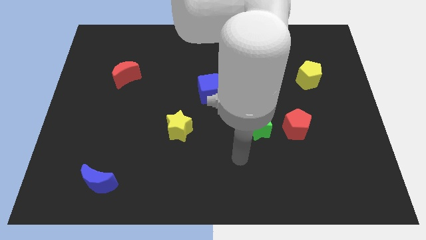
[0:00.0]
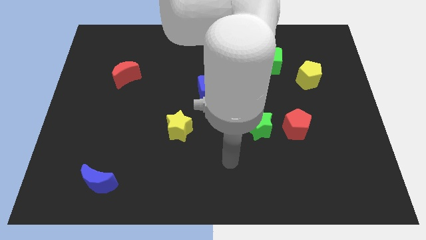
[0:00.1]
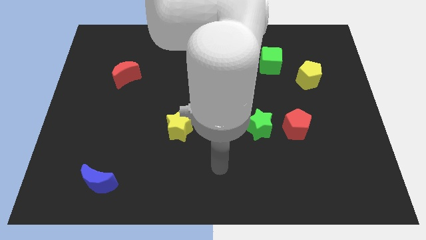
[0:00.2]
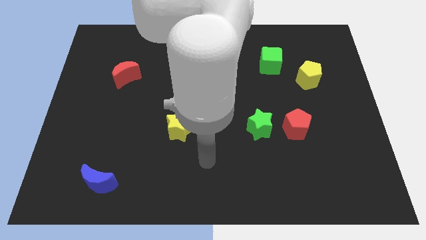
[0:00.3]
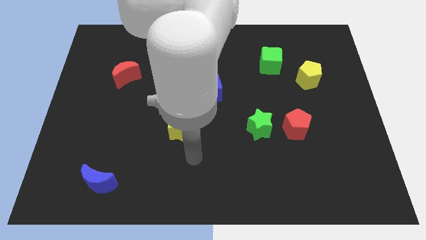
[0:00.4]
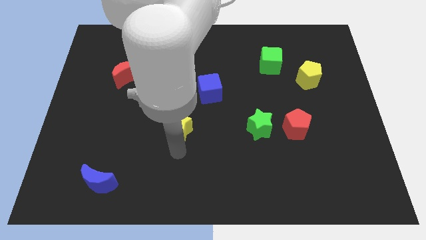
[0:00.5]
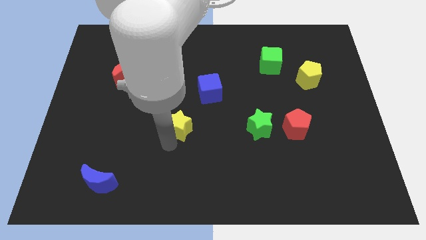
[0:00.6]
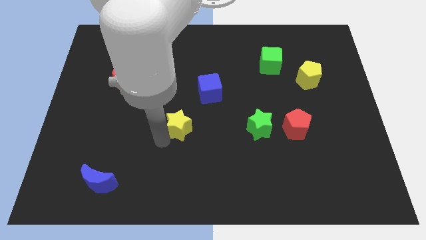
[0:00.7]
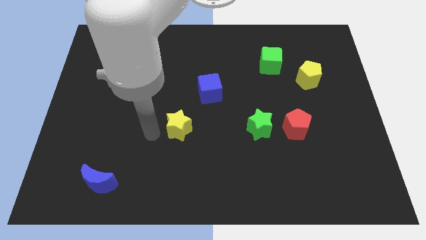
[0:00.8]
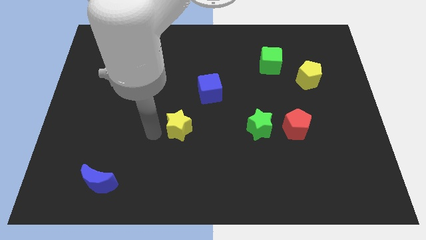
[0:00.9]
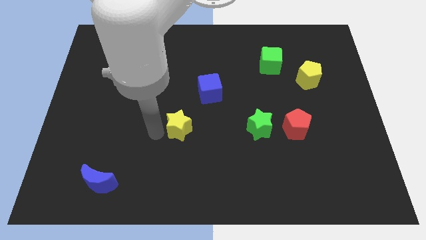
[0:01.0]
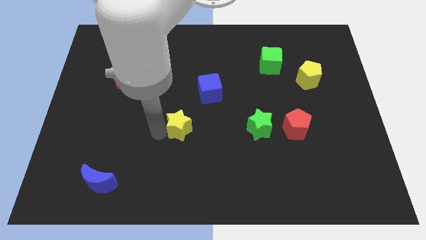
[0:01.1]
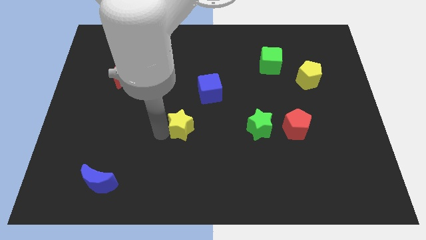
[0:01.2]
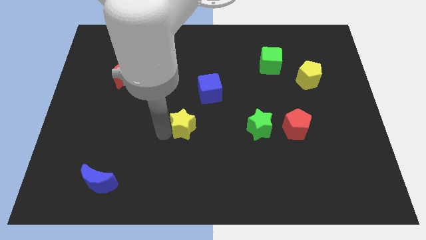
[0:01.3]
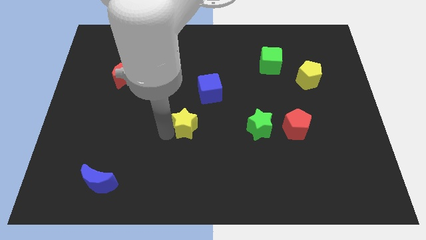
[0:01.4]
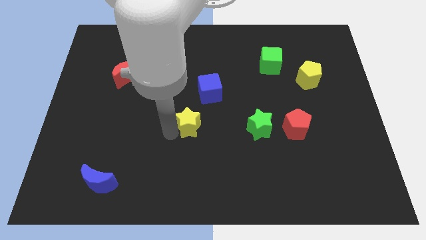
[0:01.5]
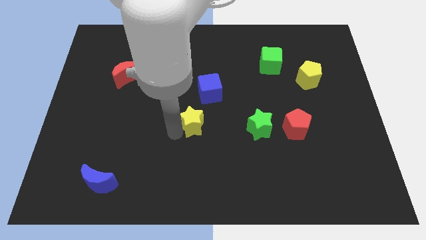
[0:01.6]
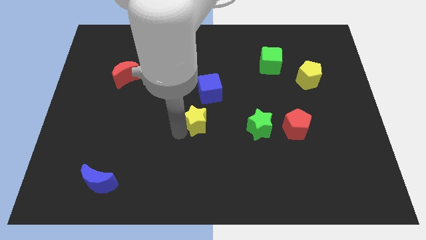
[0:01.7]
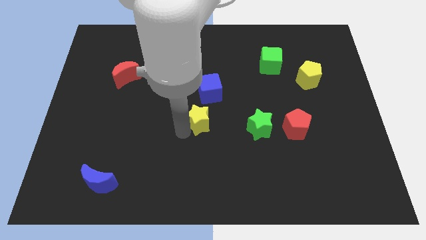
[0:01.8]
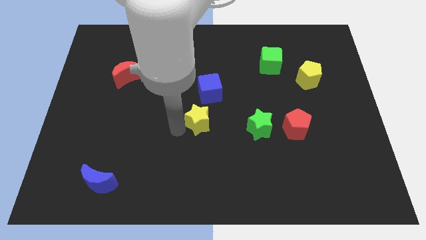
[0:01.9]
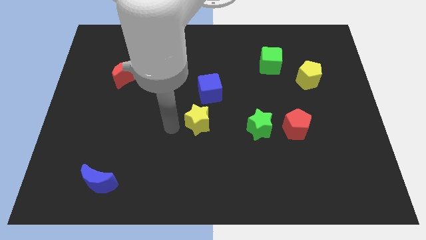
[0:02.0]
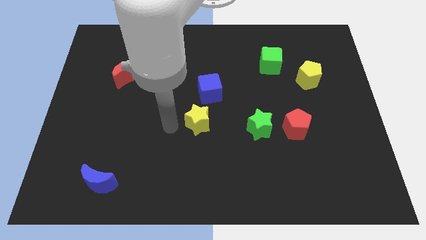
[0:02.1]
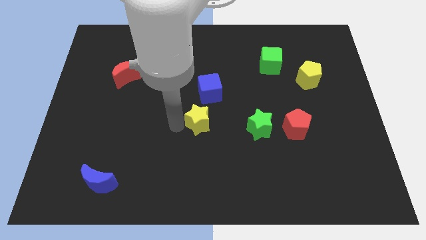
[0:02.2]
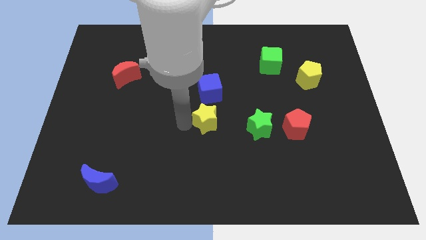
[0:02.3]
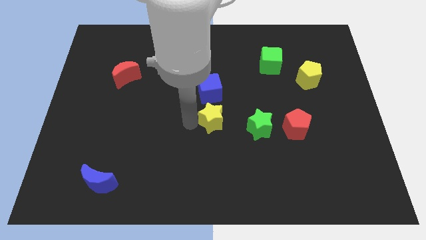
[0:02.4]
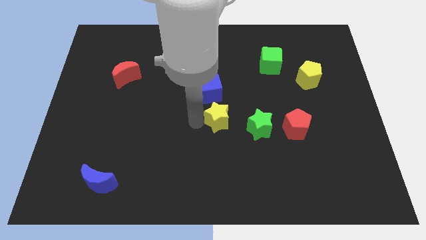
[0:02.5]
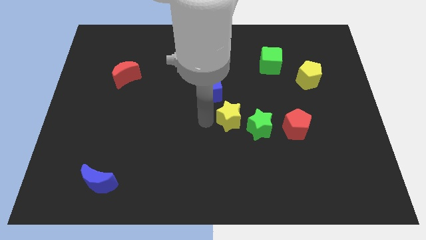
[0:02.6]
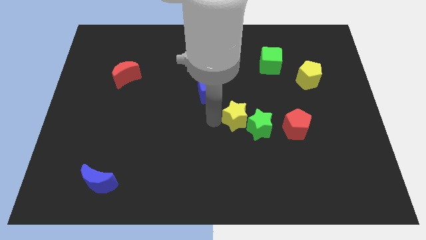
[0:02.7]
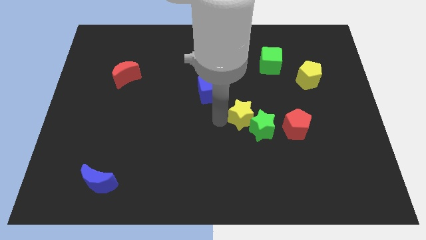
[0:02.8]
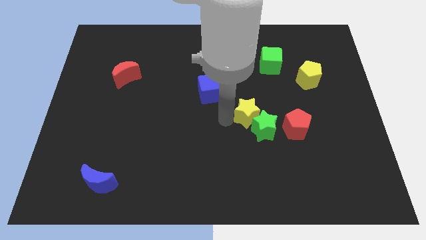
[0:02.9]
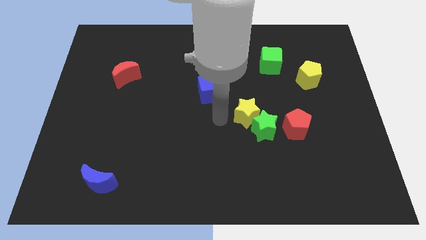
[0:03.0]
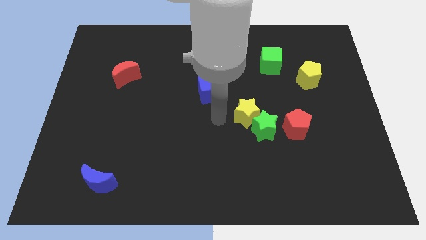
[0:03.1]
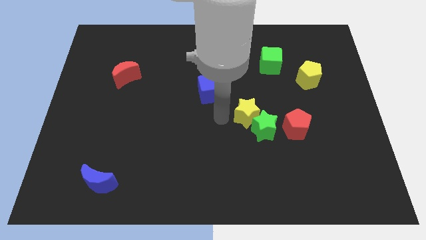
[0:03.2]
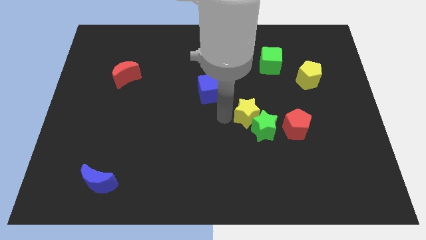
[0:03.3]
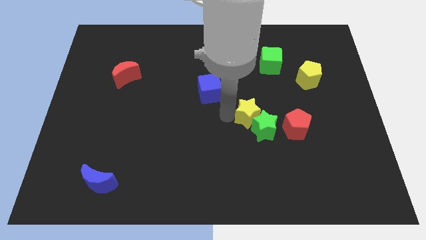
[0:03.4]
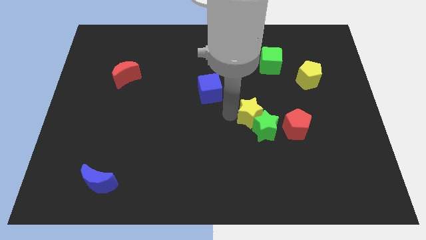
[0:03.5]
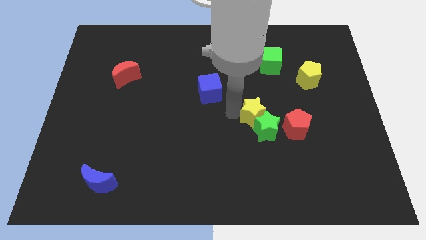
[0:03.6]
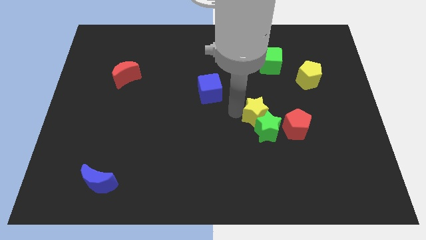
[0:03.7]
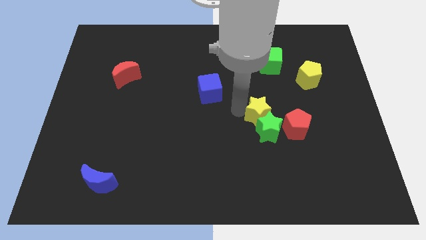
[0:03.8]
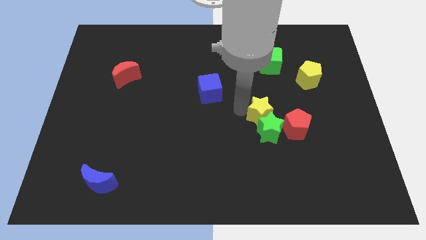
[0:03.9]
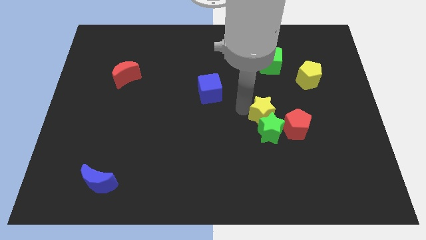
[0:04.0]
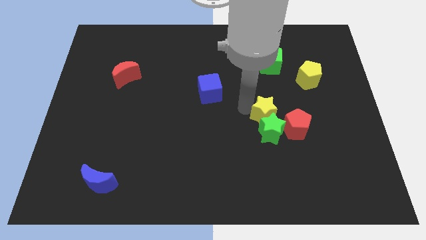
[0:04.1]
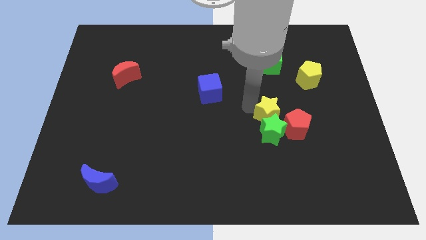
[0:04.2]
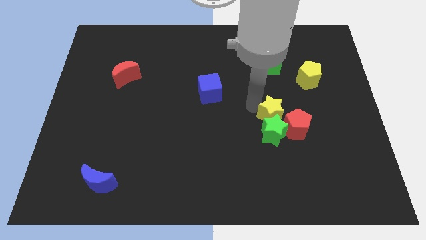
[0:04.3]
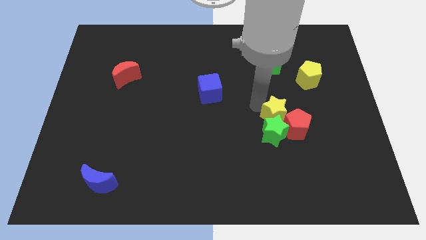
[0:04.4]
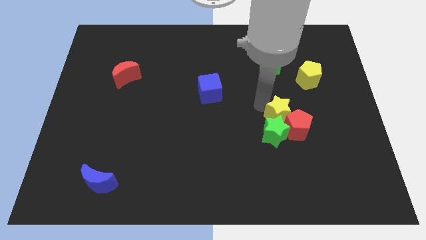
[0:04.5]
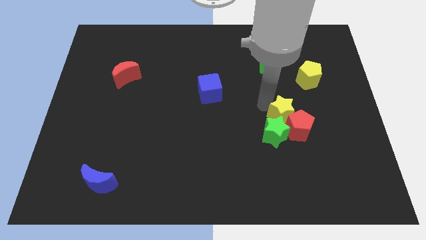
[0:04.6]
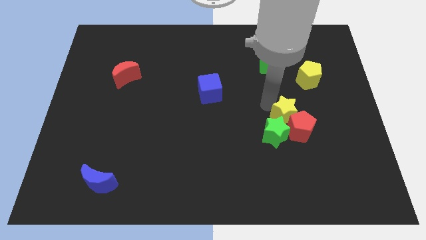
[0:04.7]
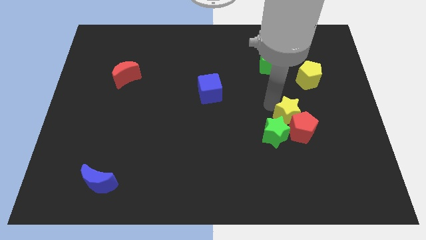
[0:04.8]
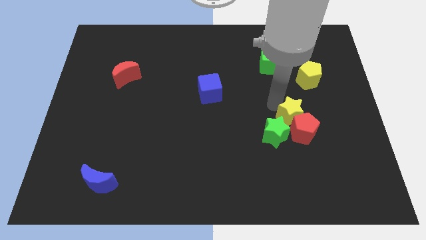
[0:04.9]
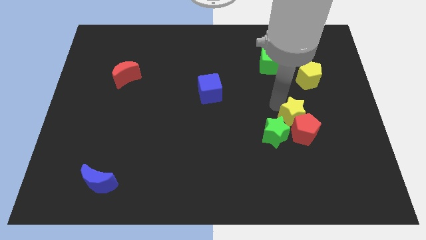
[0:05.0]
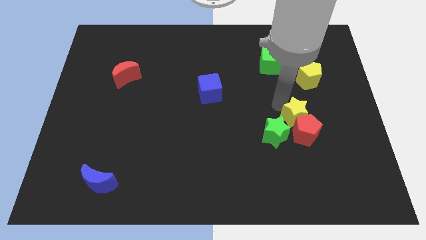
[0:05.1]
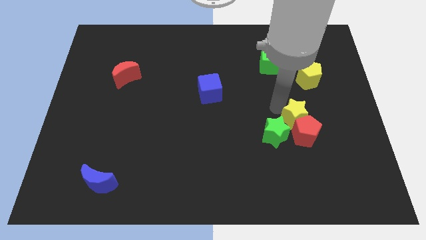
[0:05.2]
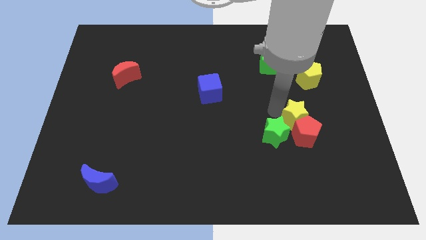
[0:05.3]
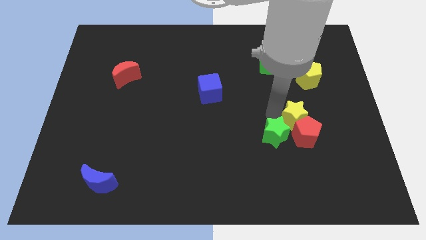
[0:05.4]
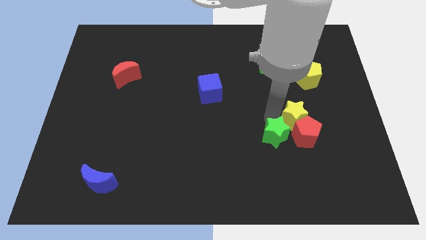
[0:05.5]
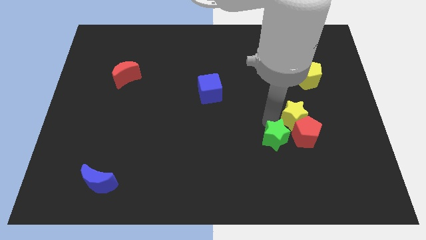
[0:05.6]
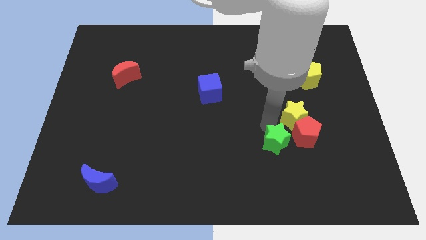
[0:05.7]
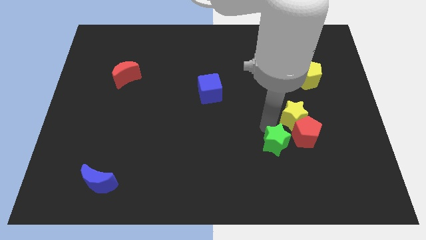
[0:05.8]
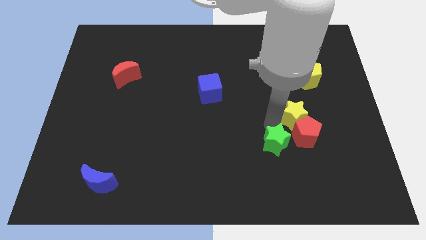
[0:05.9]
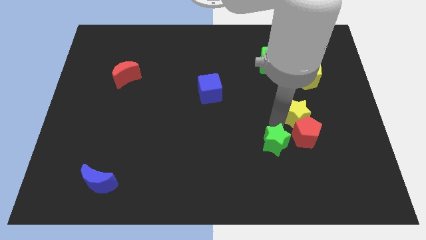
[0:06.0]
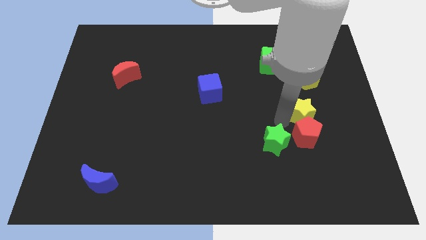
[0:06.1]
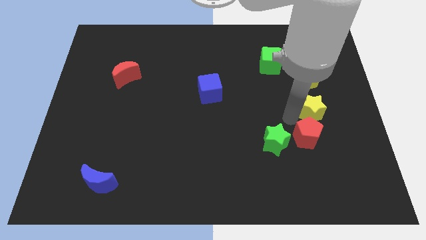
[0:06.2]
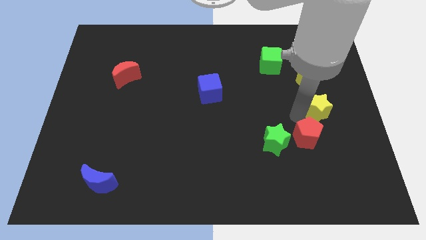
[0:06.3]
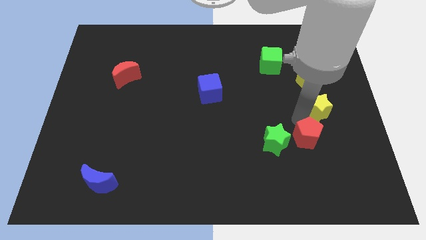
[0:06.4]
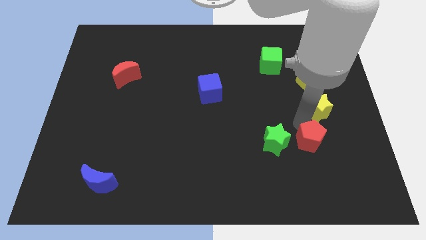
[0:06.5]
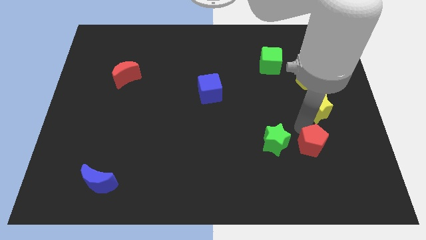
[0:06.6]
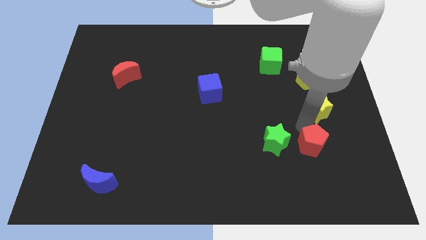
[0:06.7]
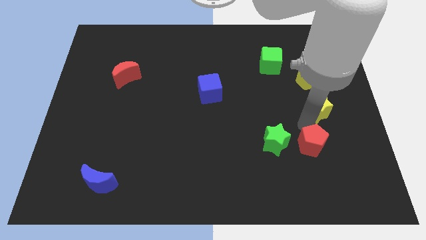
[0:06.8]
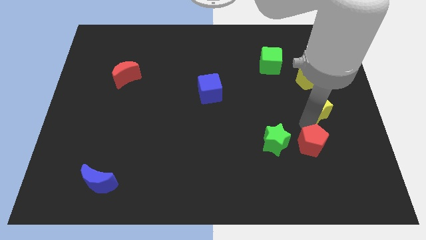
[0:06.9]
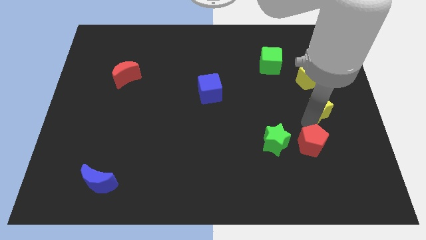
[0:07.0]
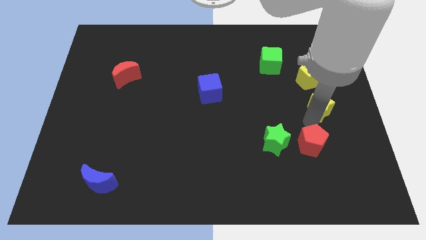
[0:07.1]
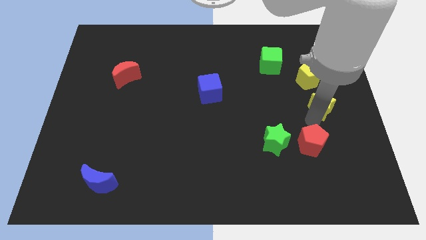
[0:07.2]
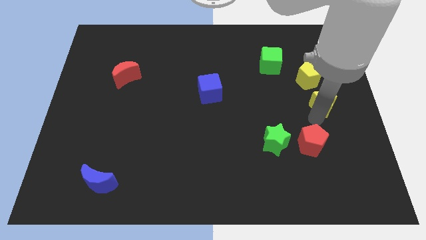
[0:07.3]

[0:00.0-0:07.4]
push the yellow star to the center right
